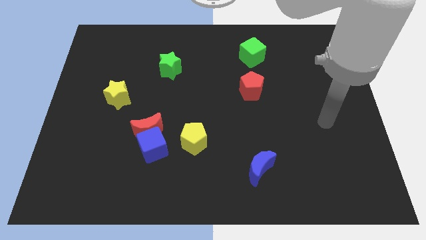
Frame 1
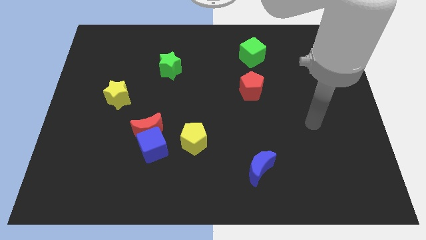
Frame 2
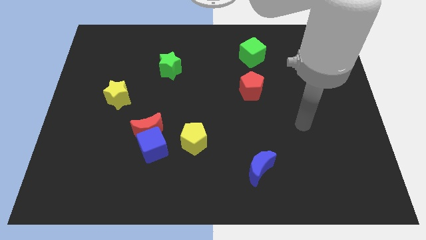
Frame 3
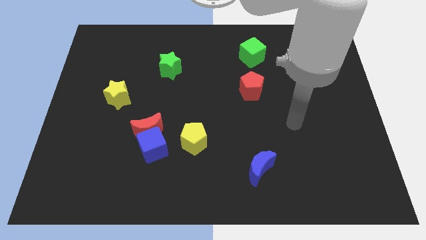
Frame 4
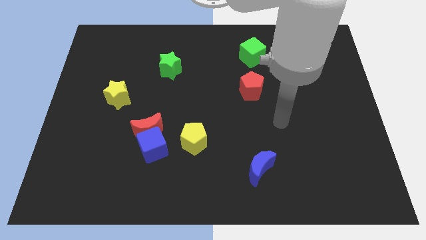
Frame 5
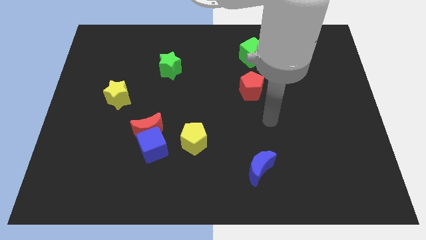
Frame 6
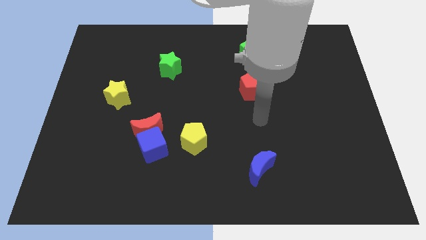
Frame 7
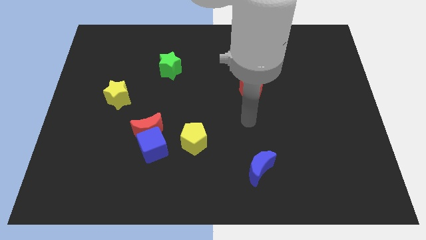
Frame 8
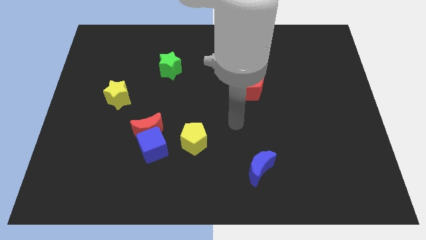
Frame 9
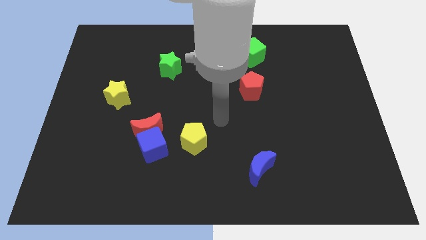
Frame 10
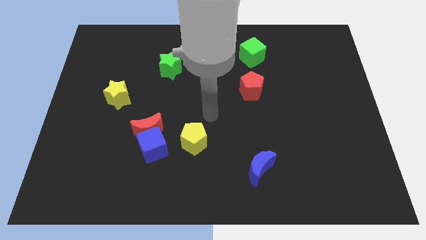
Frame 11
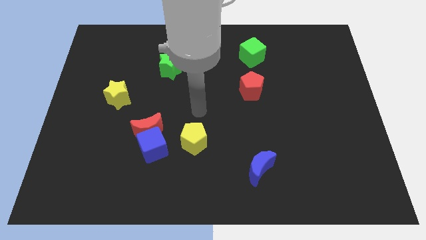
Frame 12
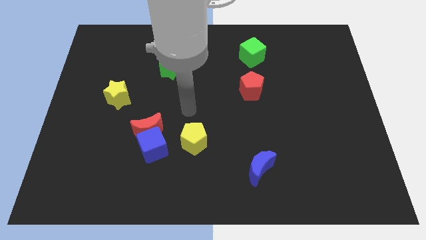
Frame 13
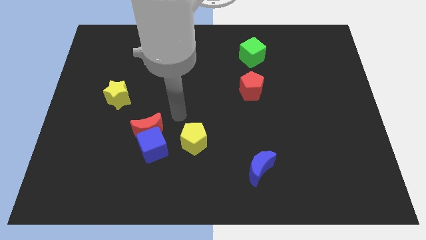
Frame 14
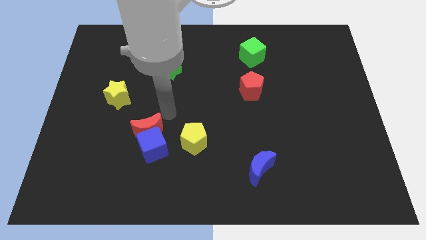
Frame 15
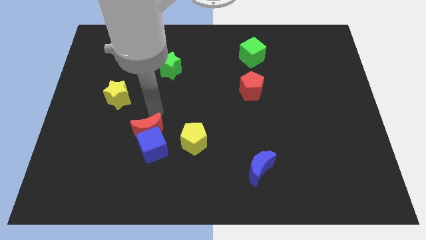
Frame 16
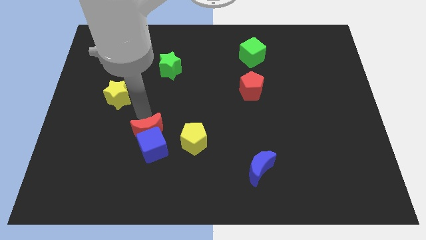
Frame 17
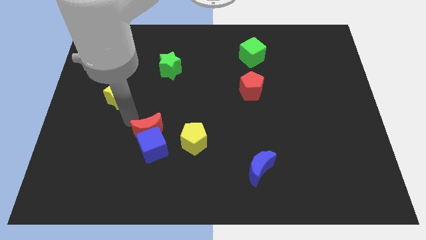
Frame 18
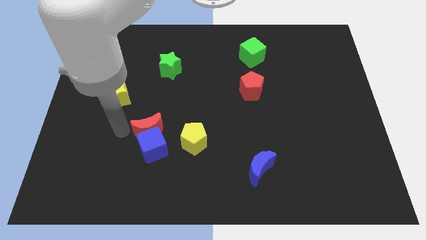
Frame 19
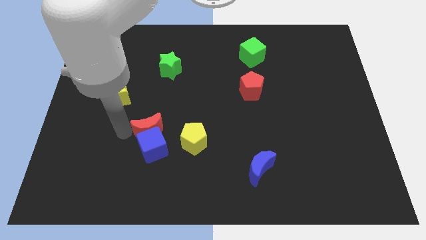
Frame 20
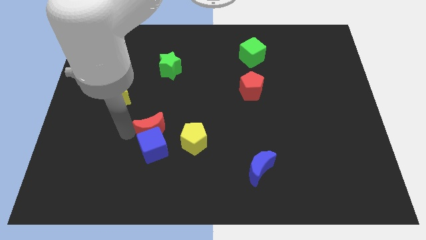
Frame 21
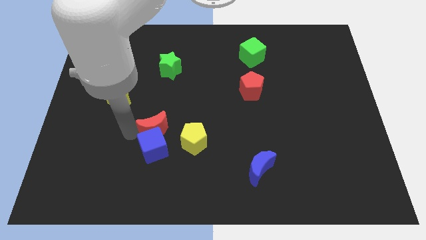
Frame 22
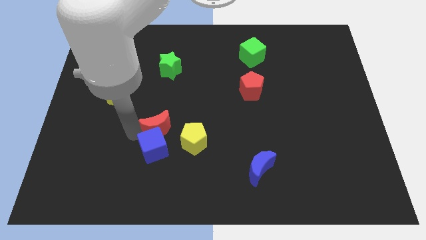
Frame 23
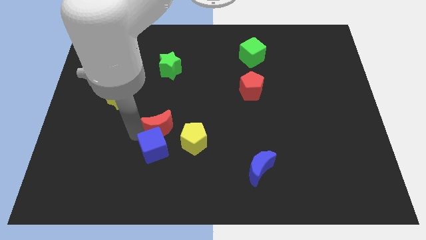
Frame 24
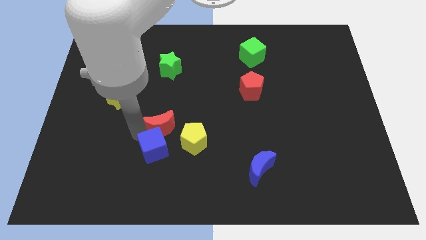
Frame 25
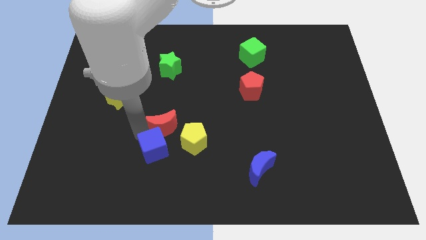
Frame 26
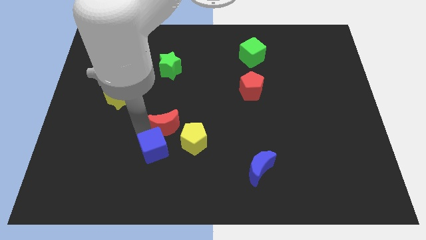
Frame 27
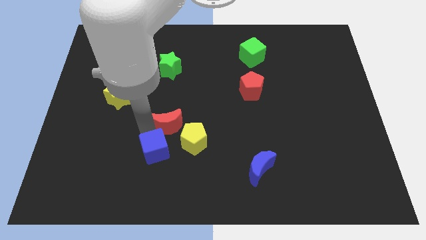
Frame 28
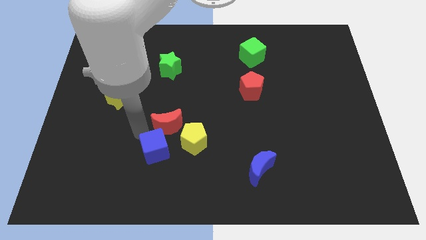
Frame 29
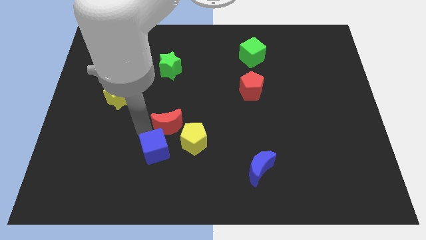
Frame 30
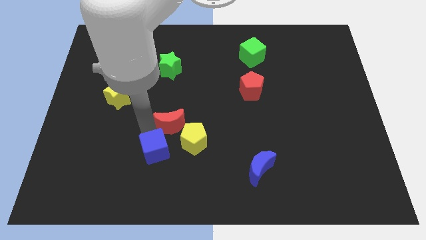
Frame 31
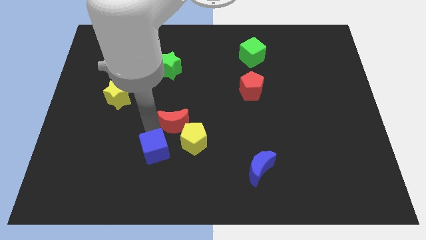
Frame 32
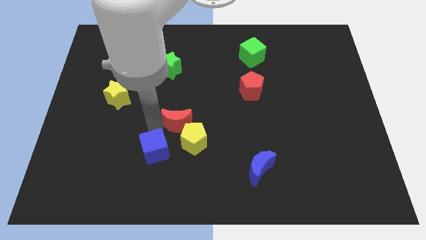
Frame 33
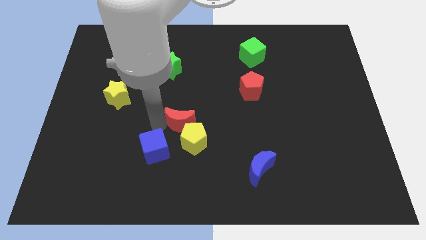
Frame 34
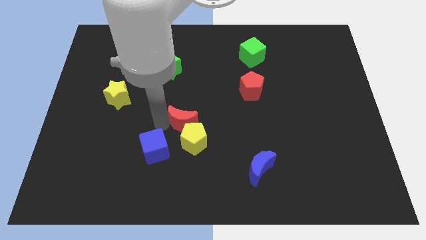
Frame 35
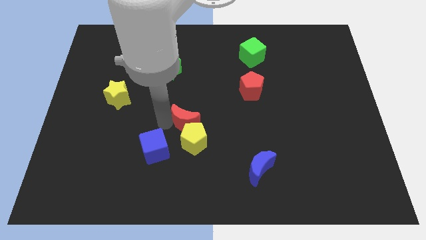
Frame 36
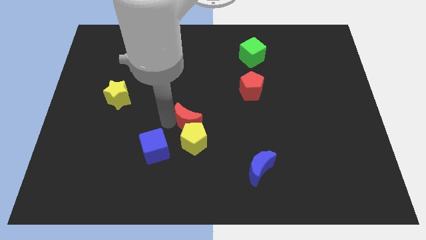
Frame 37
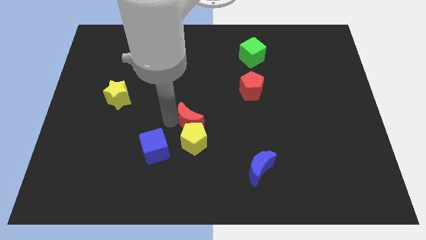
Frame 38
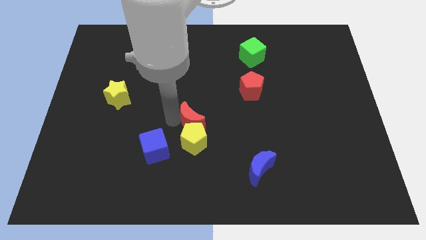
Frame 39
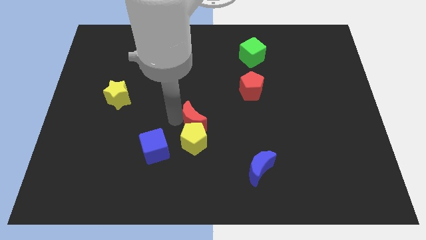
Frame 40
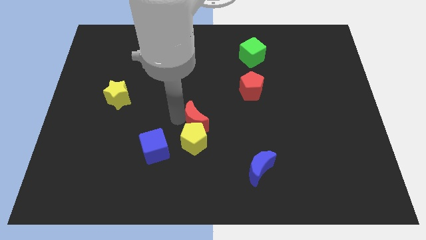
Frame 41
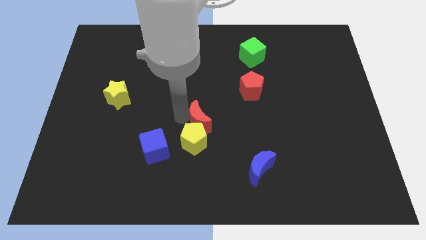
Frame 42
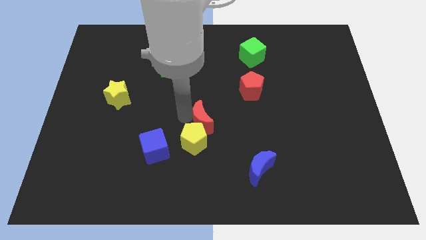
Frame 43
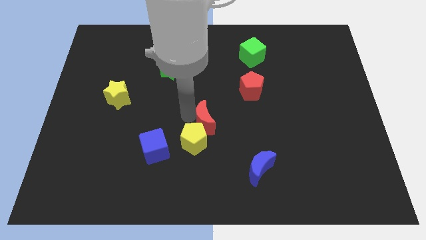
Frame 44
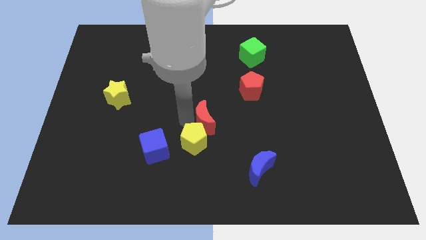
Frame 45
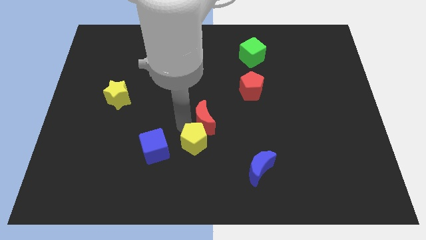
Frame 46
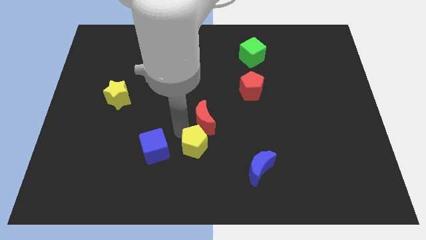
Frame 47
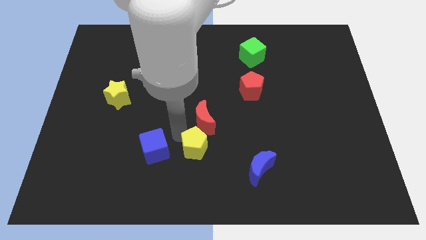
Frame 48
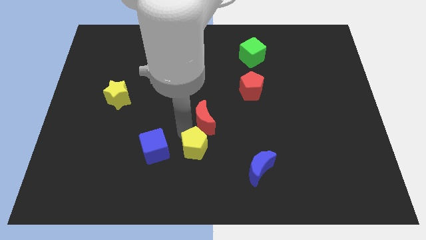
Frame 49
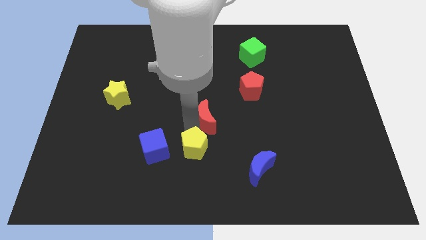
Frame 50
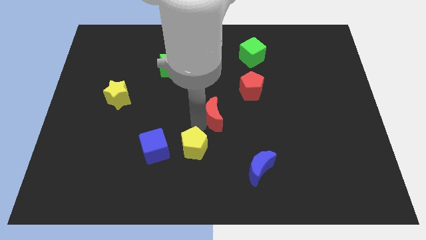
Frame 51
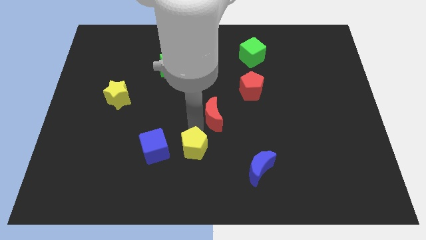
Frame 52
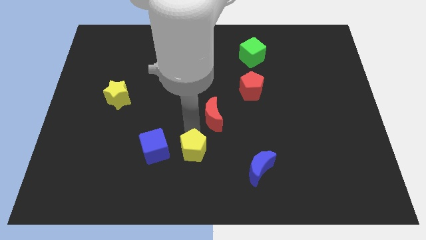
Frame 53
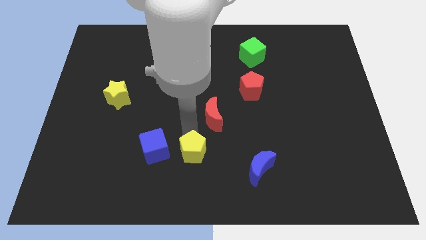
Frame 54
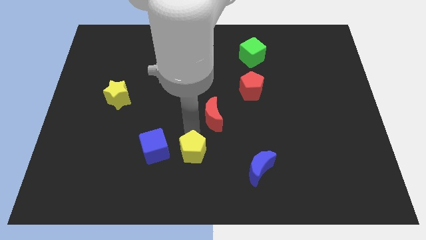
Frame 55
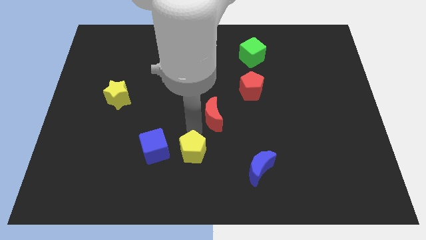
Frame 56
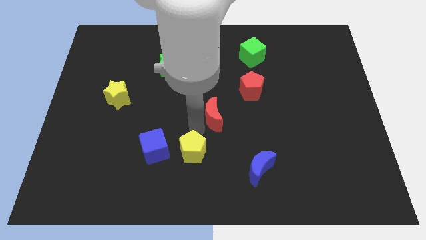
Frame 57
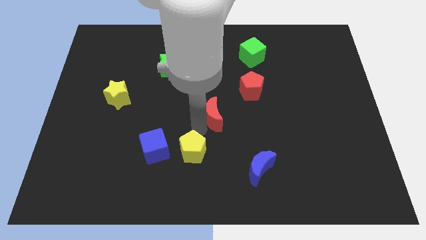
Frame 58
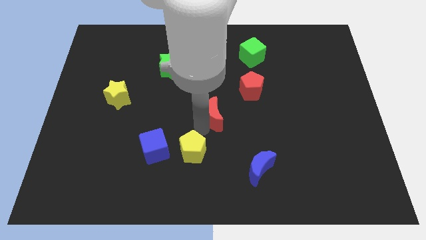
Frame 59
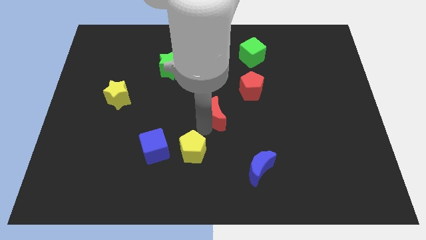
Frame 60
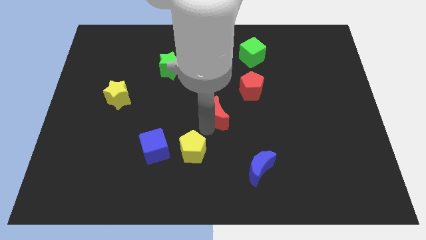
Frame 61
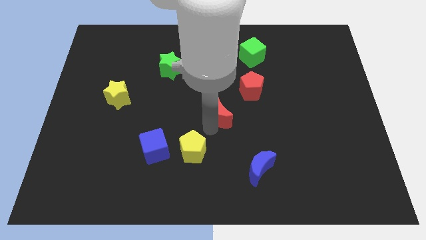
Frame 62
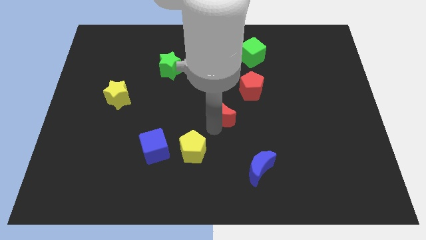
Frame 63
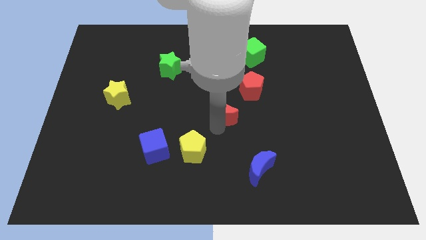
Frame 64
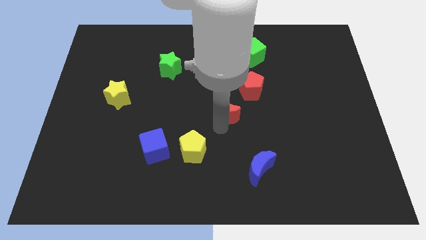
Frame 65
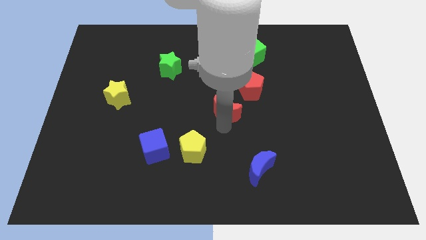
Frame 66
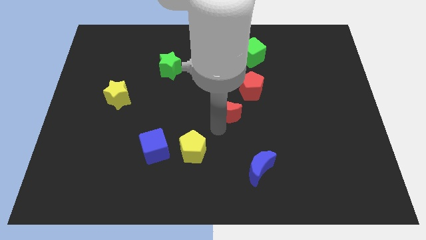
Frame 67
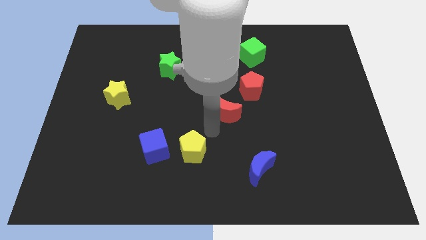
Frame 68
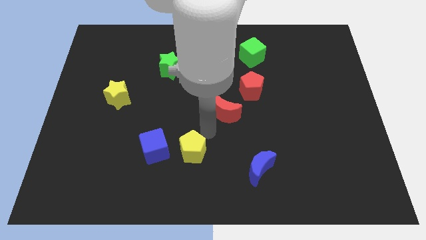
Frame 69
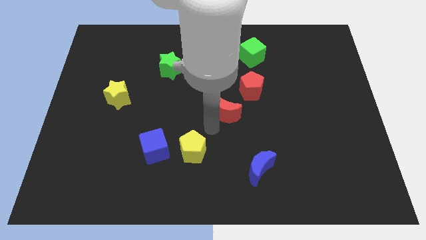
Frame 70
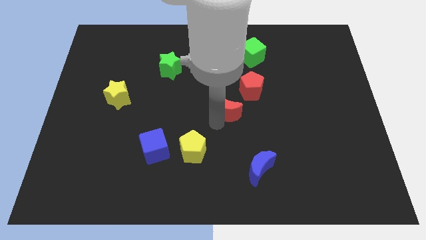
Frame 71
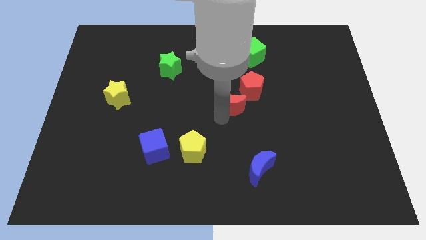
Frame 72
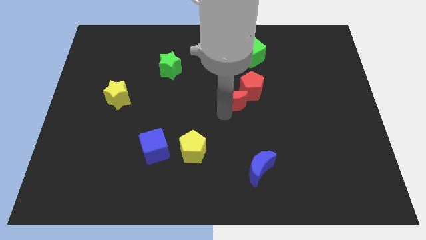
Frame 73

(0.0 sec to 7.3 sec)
slide the red moon to the red pentagon
